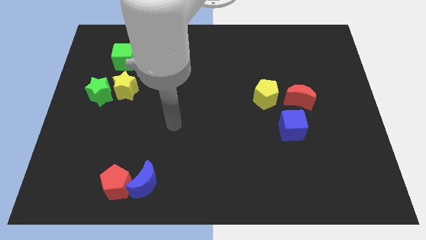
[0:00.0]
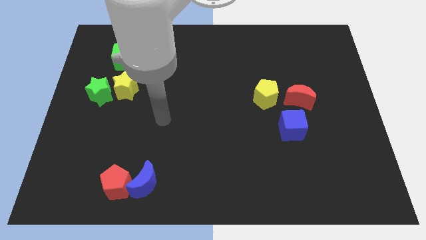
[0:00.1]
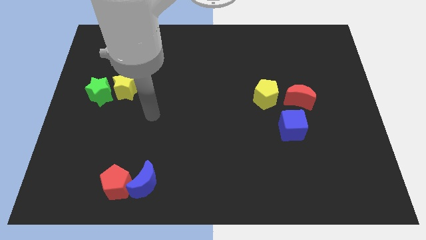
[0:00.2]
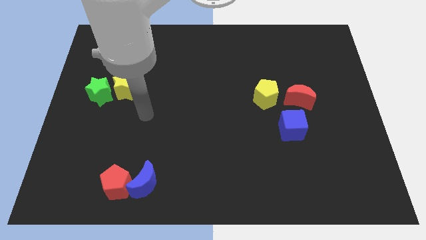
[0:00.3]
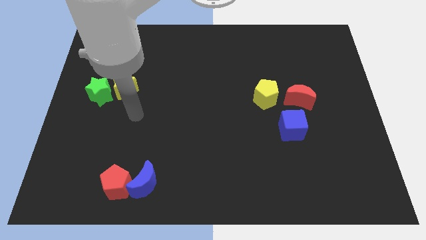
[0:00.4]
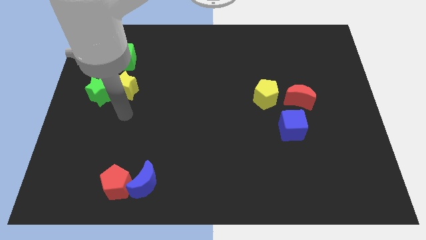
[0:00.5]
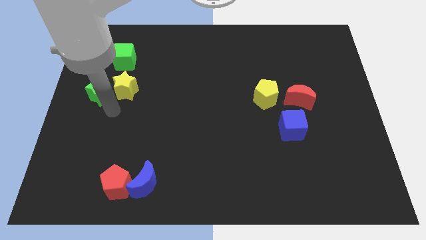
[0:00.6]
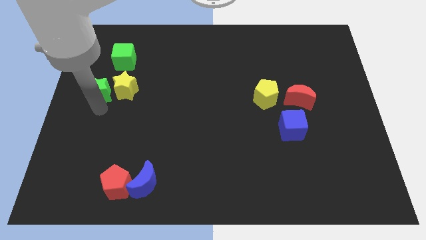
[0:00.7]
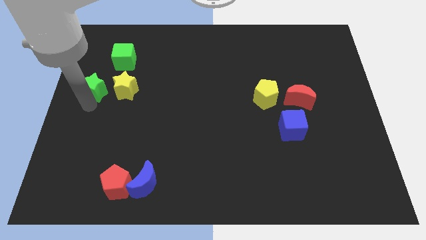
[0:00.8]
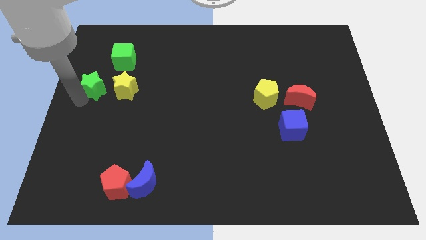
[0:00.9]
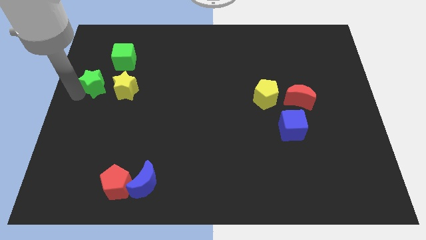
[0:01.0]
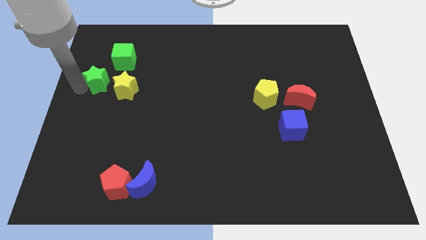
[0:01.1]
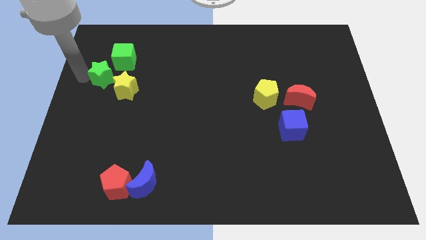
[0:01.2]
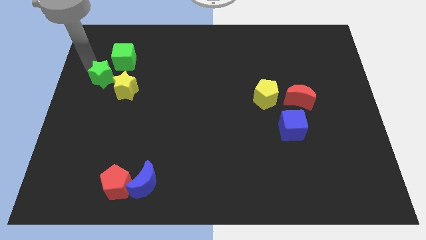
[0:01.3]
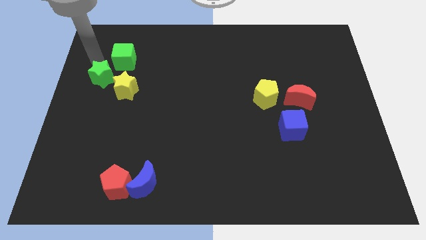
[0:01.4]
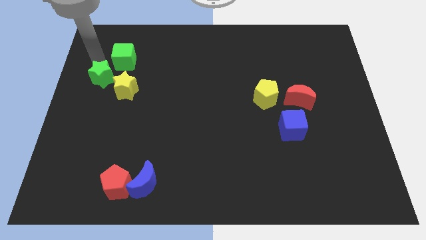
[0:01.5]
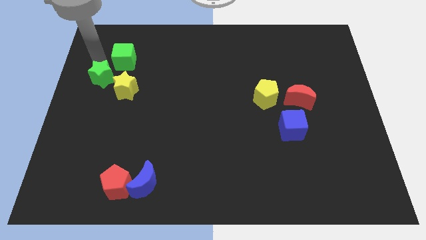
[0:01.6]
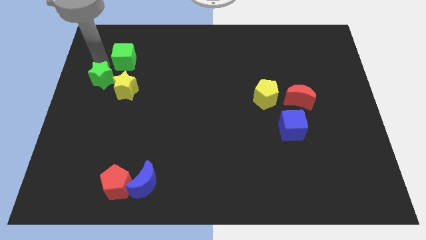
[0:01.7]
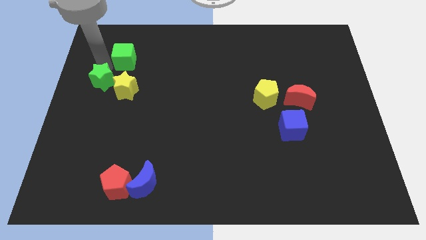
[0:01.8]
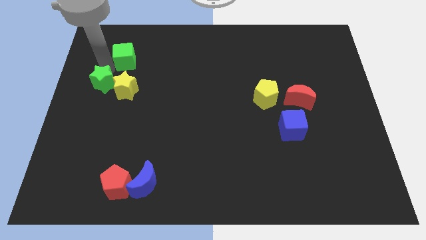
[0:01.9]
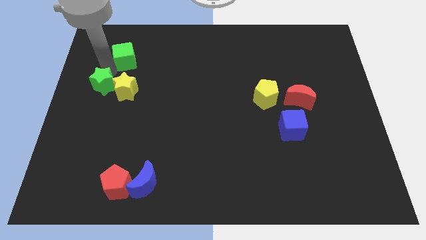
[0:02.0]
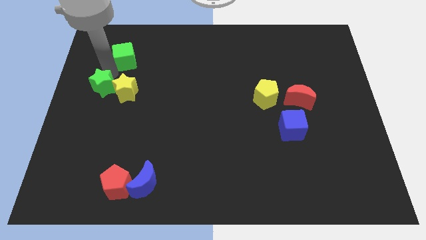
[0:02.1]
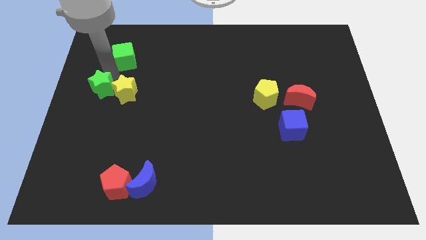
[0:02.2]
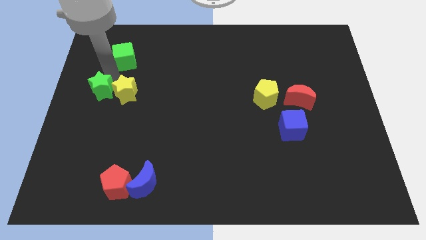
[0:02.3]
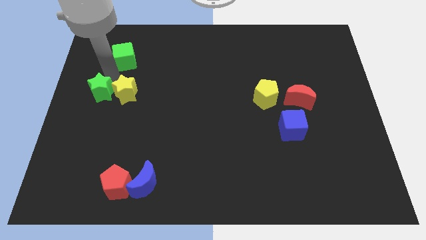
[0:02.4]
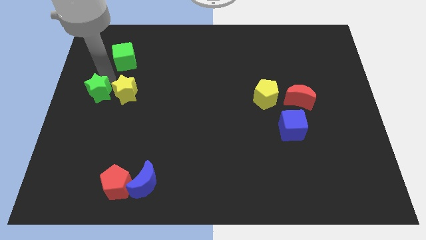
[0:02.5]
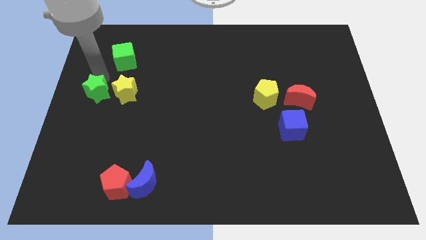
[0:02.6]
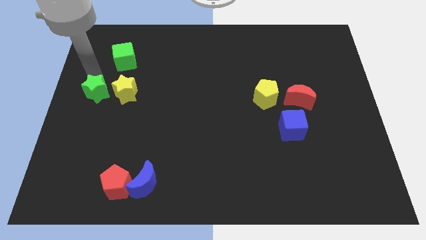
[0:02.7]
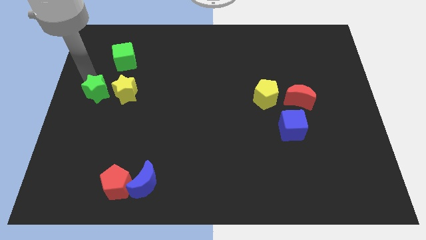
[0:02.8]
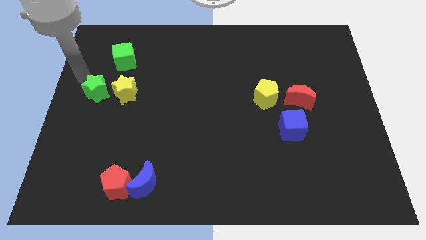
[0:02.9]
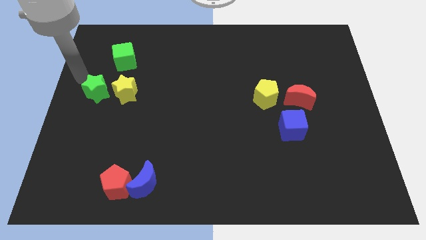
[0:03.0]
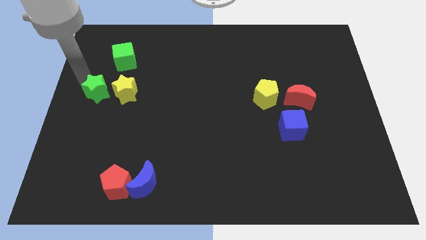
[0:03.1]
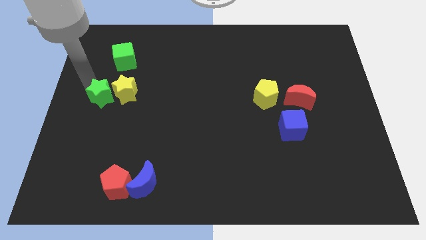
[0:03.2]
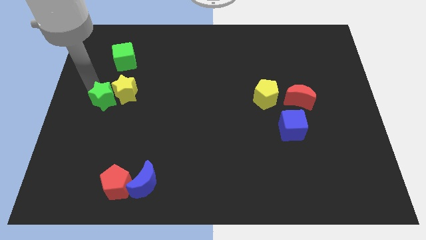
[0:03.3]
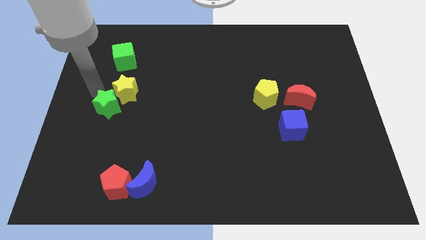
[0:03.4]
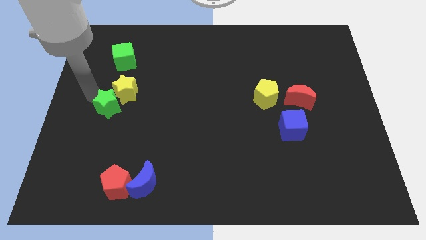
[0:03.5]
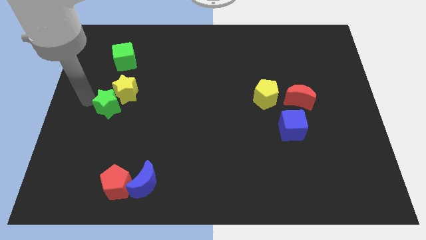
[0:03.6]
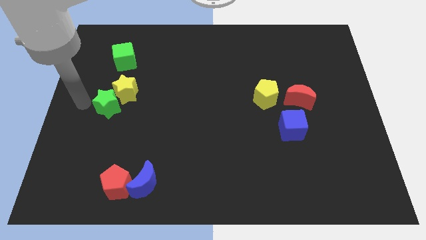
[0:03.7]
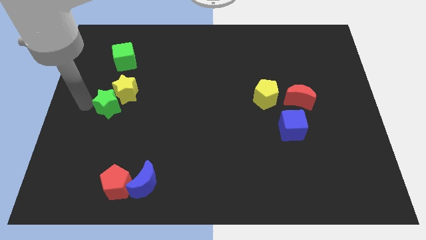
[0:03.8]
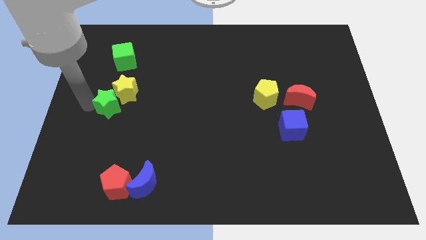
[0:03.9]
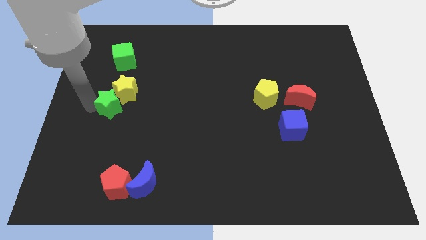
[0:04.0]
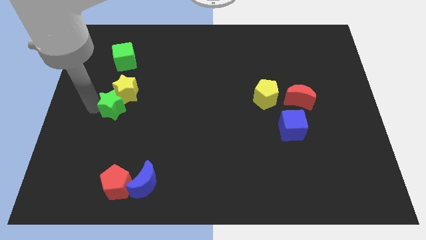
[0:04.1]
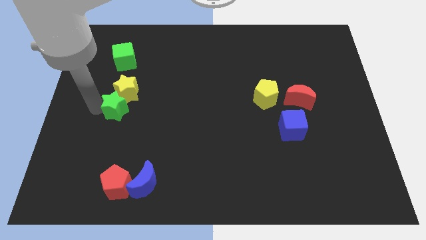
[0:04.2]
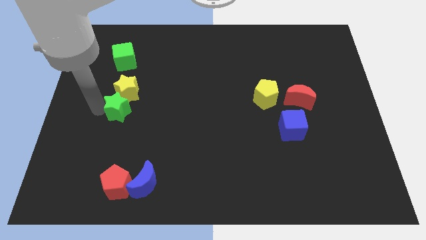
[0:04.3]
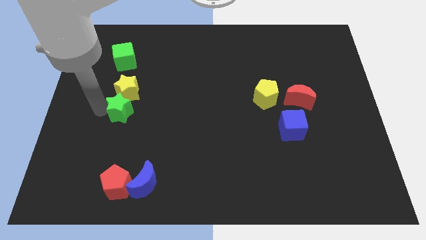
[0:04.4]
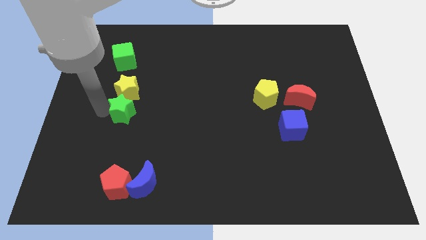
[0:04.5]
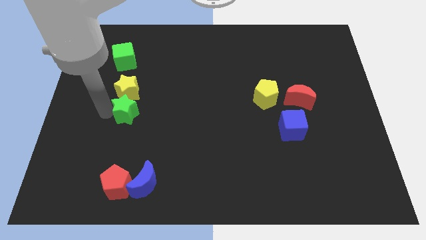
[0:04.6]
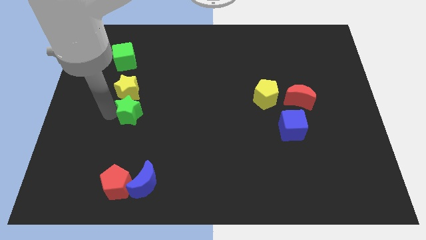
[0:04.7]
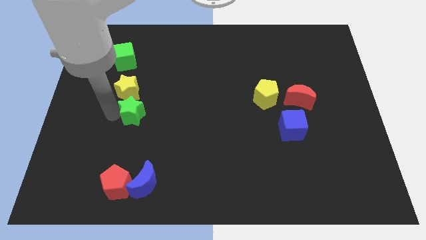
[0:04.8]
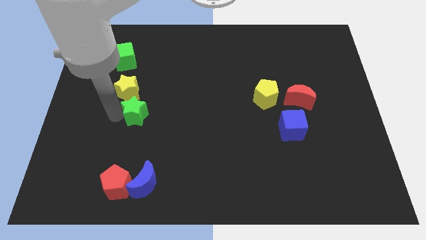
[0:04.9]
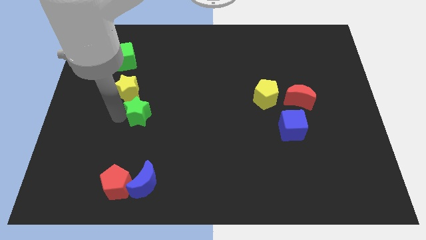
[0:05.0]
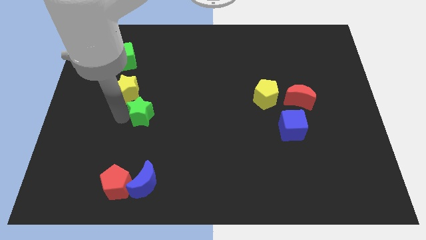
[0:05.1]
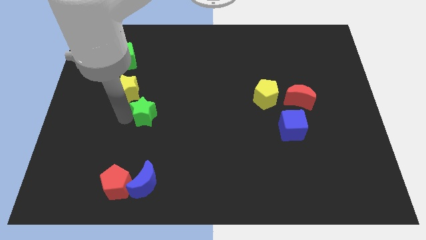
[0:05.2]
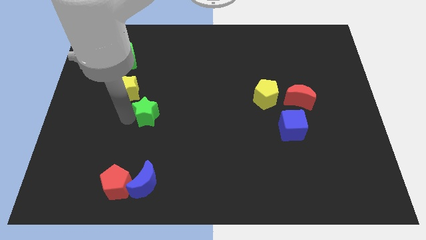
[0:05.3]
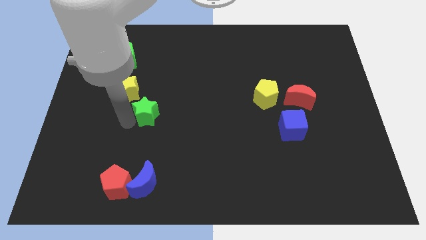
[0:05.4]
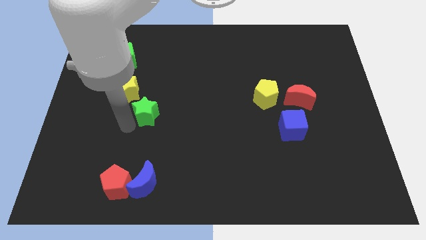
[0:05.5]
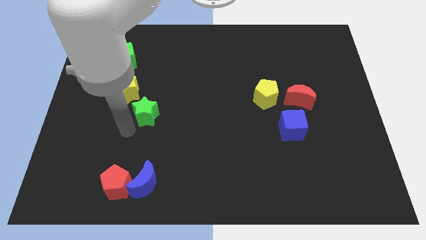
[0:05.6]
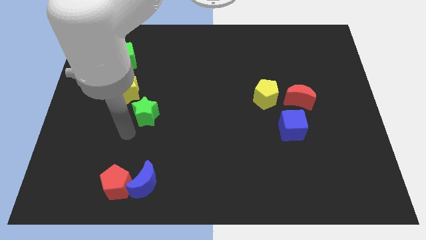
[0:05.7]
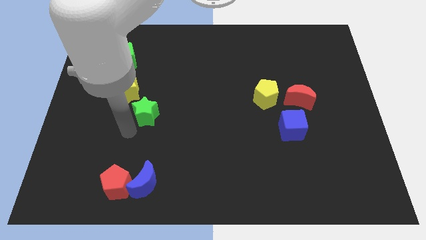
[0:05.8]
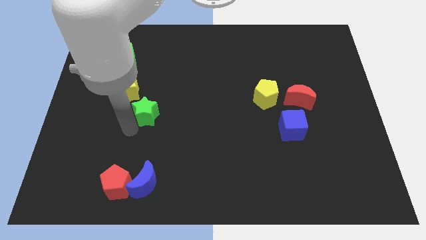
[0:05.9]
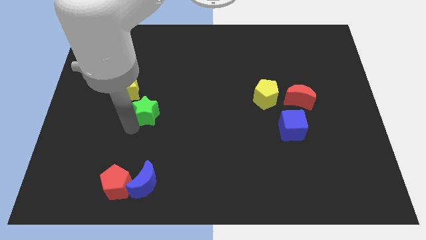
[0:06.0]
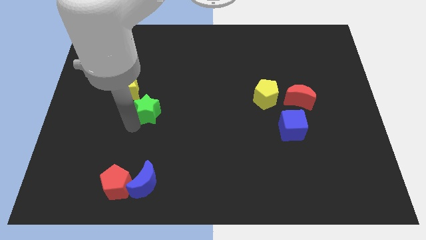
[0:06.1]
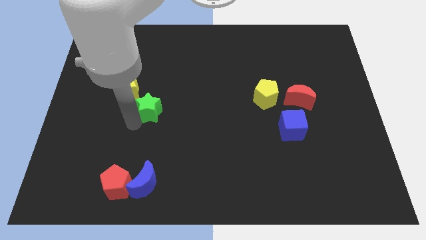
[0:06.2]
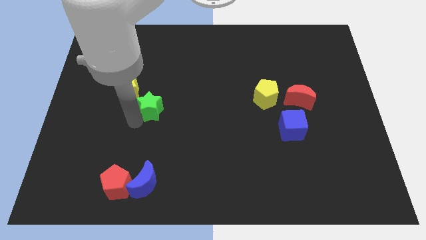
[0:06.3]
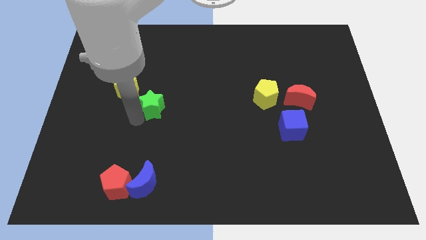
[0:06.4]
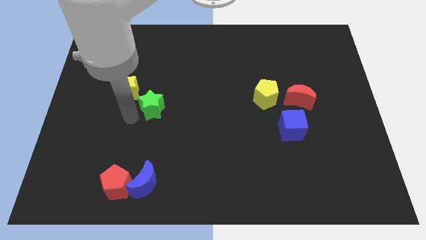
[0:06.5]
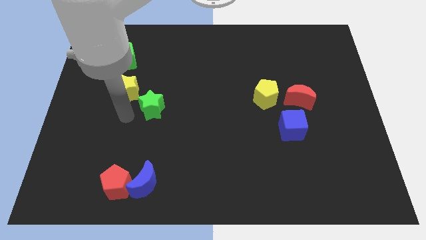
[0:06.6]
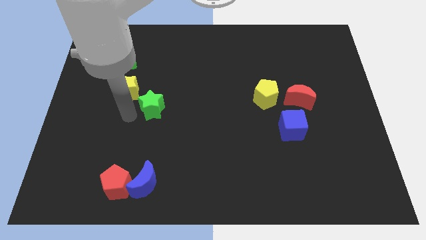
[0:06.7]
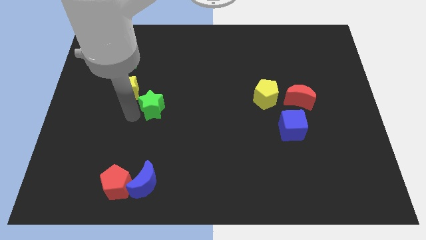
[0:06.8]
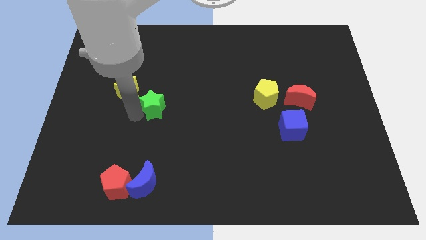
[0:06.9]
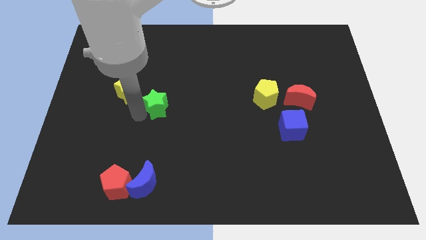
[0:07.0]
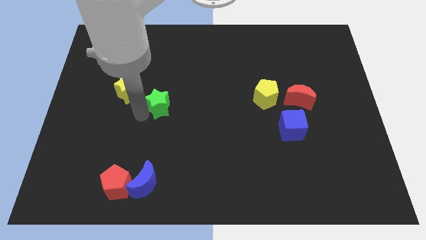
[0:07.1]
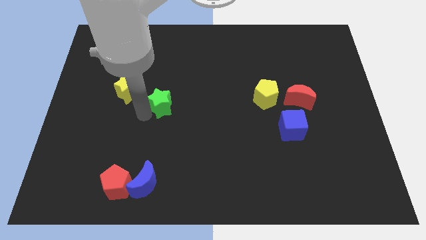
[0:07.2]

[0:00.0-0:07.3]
move the green star to the middle of the board
